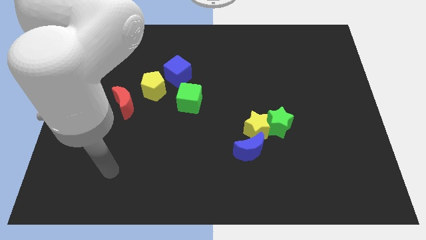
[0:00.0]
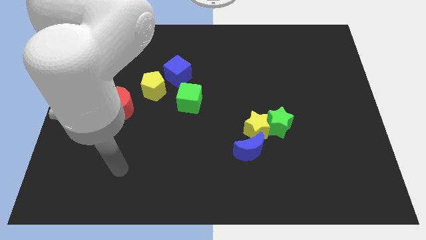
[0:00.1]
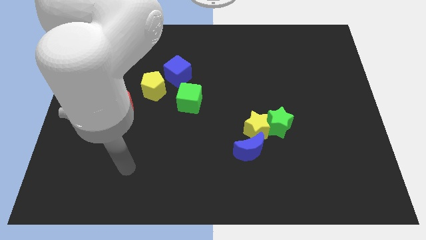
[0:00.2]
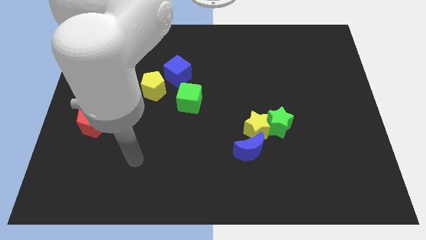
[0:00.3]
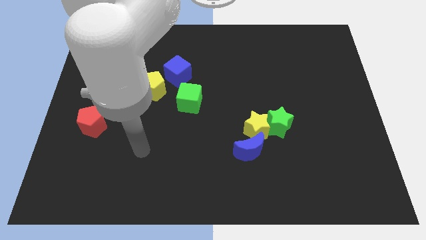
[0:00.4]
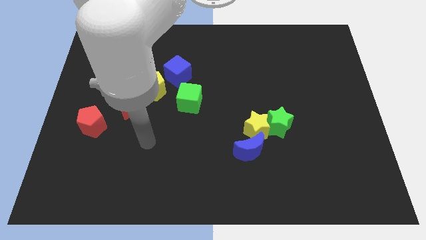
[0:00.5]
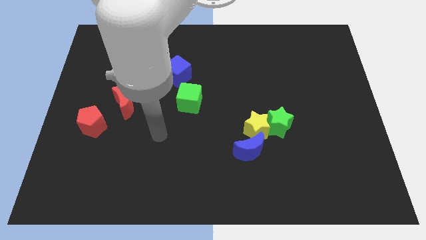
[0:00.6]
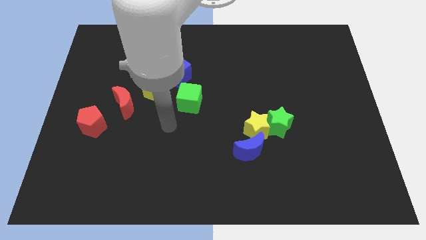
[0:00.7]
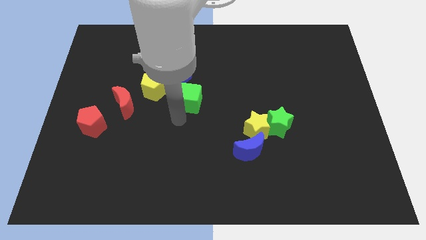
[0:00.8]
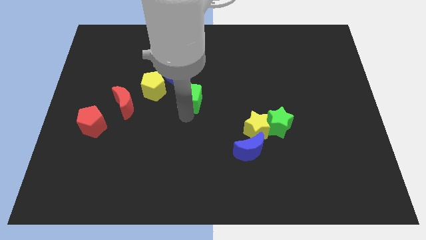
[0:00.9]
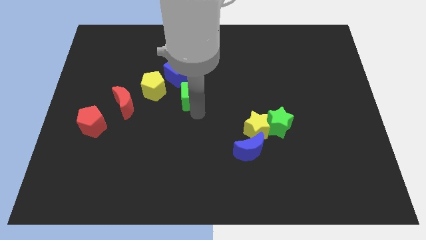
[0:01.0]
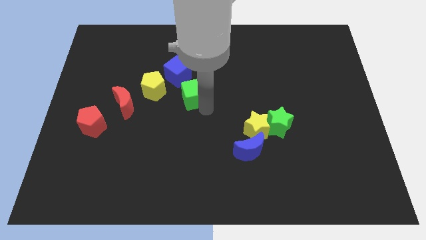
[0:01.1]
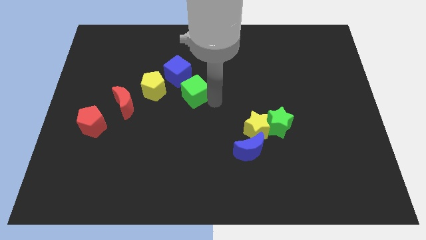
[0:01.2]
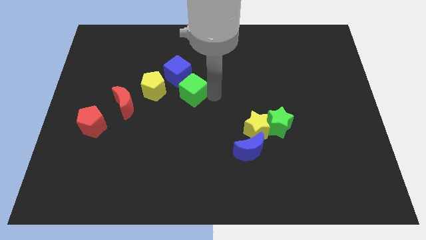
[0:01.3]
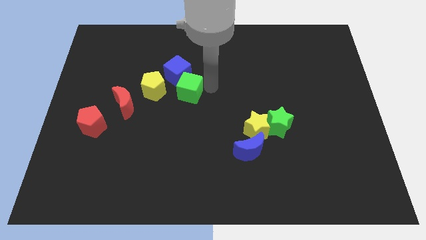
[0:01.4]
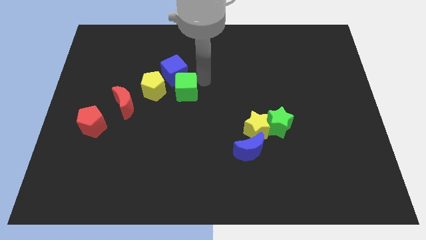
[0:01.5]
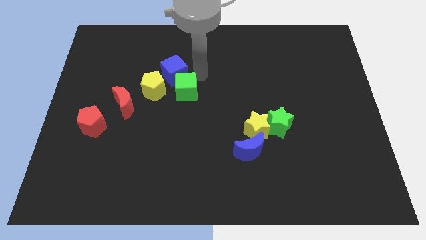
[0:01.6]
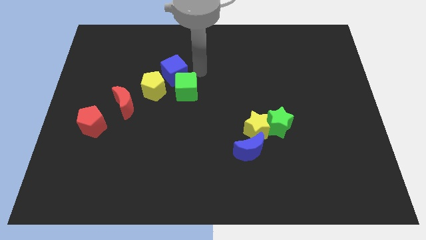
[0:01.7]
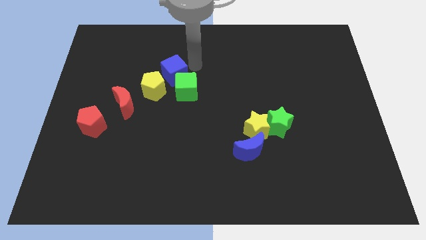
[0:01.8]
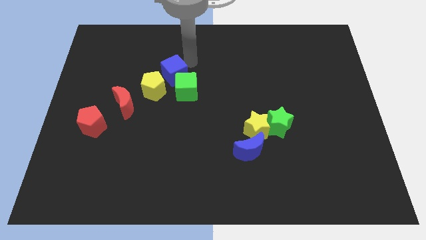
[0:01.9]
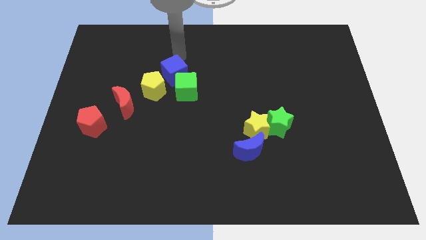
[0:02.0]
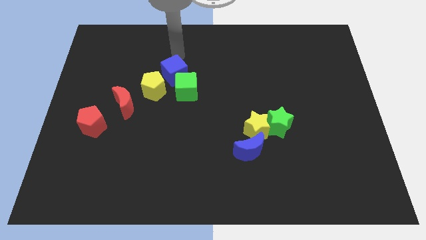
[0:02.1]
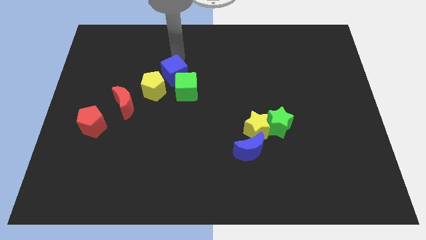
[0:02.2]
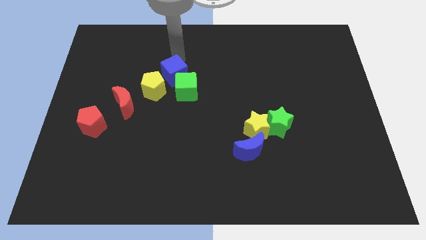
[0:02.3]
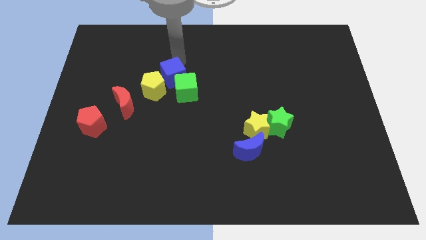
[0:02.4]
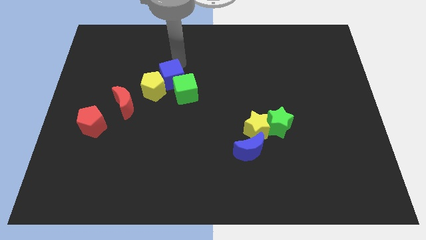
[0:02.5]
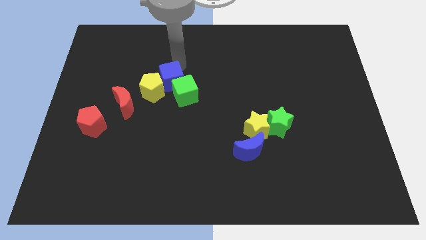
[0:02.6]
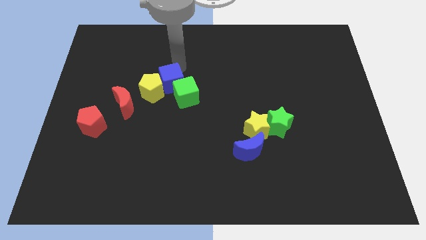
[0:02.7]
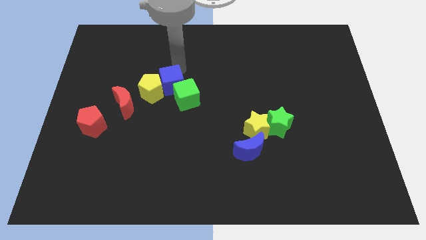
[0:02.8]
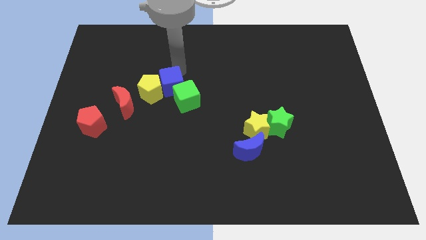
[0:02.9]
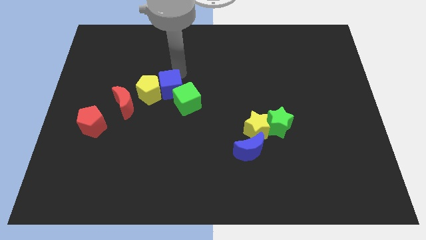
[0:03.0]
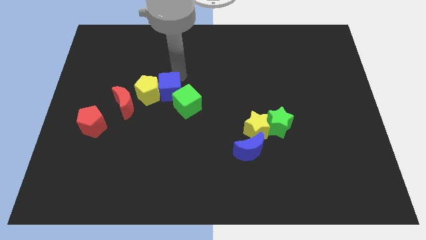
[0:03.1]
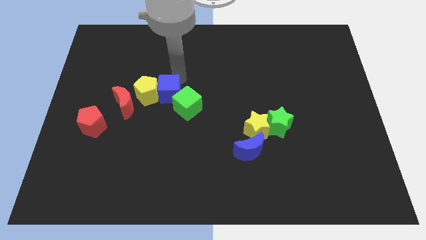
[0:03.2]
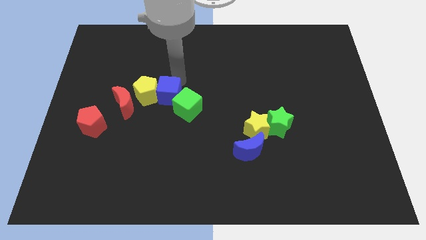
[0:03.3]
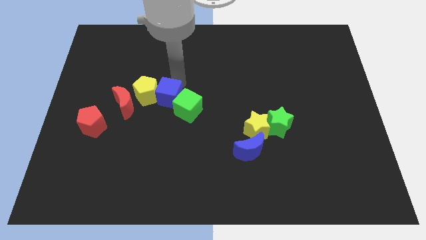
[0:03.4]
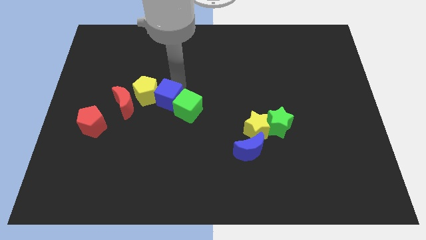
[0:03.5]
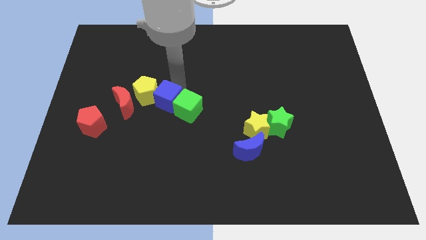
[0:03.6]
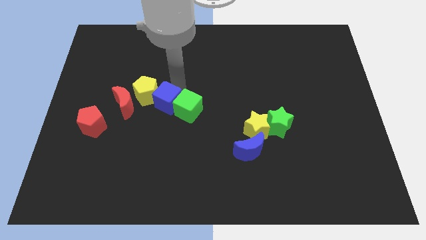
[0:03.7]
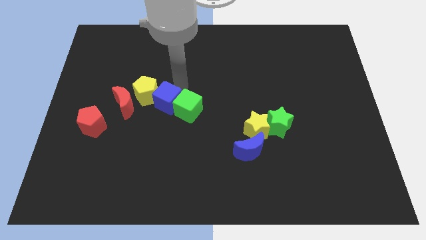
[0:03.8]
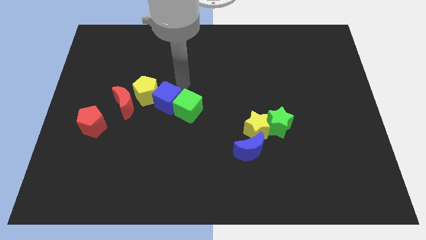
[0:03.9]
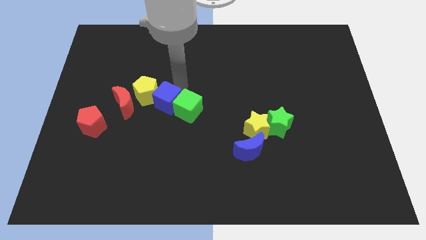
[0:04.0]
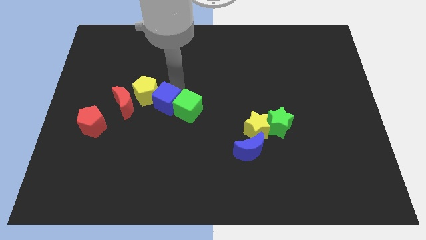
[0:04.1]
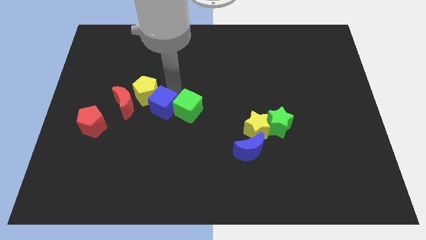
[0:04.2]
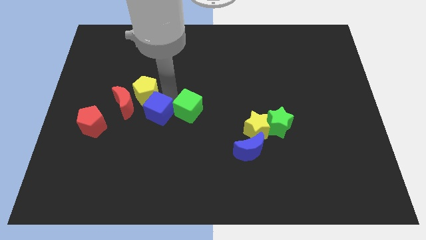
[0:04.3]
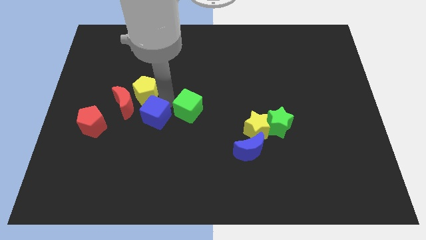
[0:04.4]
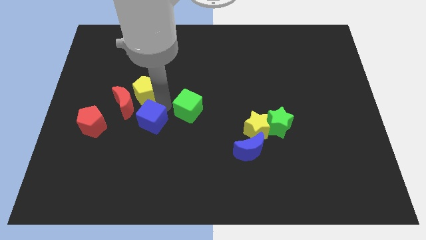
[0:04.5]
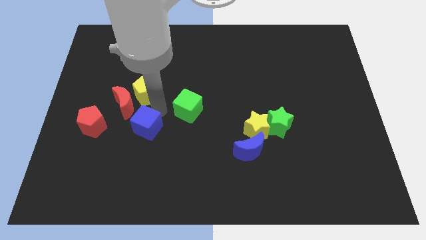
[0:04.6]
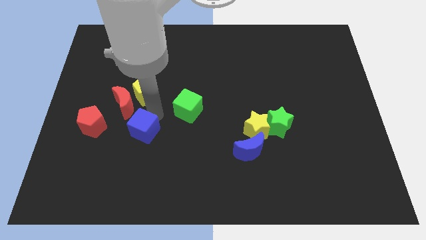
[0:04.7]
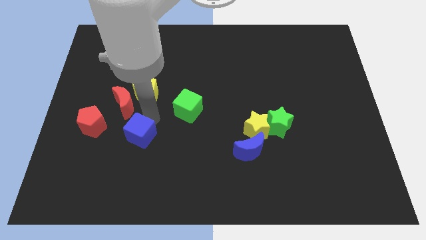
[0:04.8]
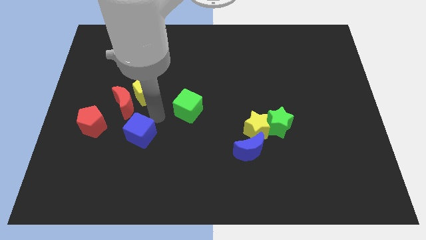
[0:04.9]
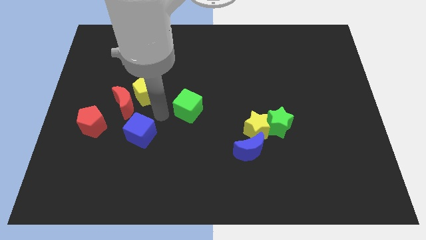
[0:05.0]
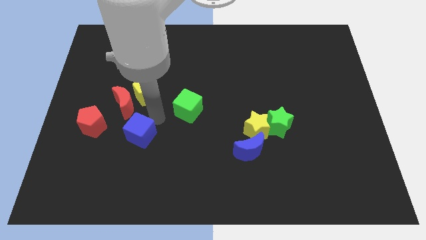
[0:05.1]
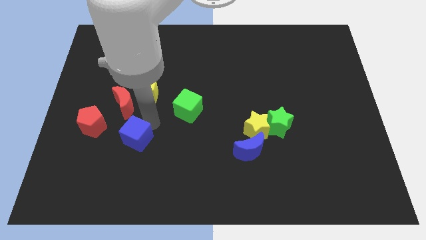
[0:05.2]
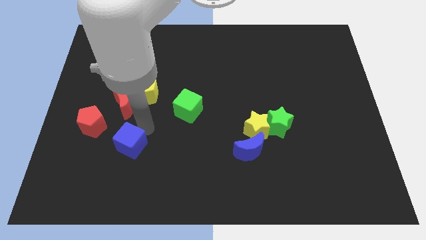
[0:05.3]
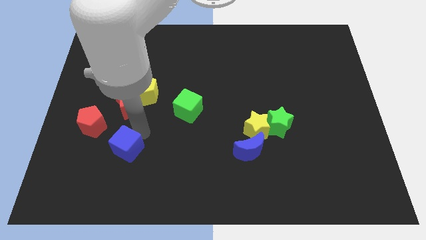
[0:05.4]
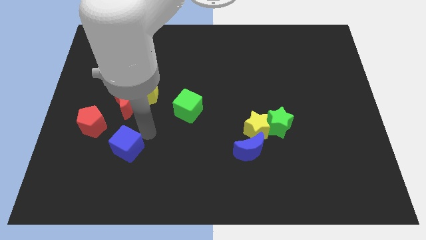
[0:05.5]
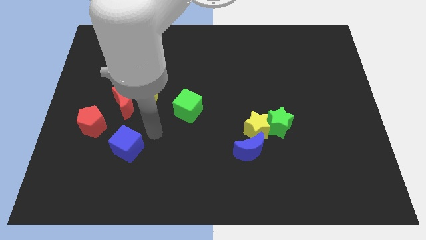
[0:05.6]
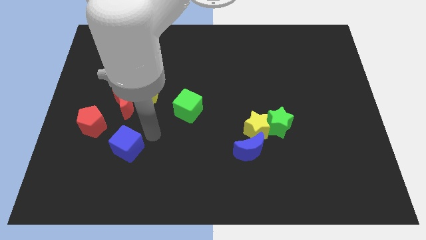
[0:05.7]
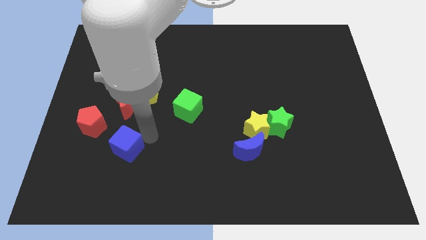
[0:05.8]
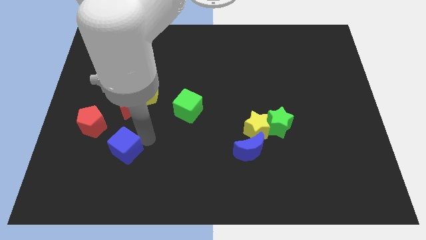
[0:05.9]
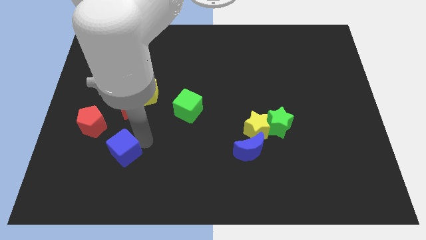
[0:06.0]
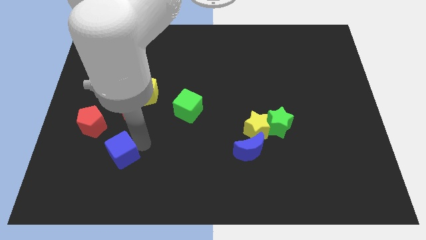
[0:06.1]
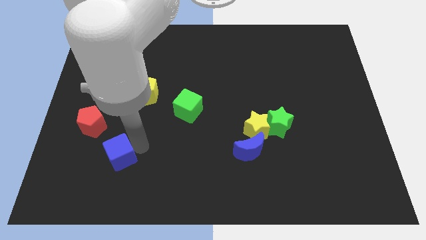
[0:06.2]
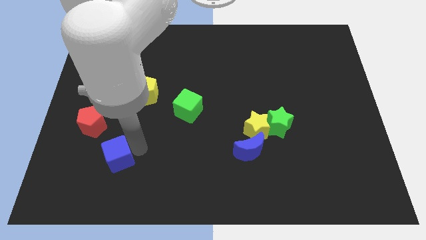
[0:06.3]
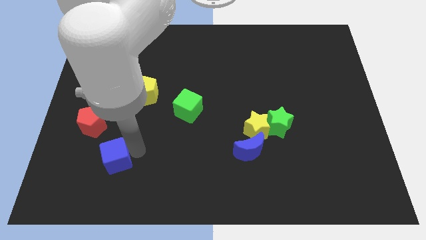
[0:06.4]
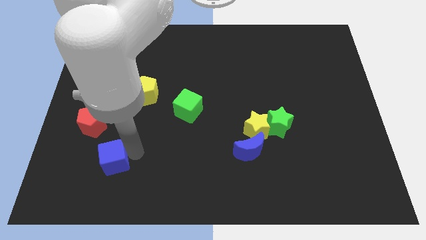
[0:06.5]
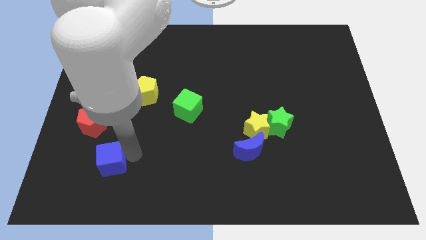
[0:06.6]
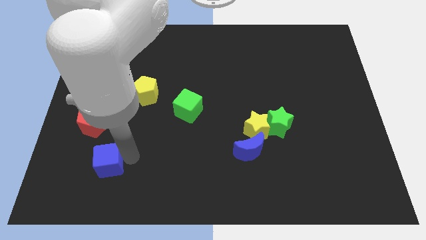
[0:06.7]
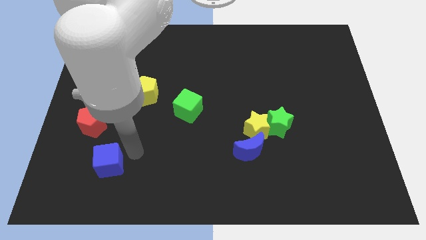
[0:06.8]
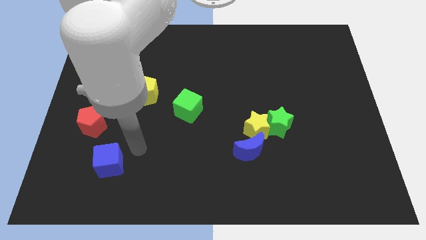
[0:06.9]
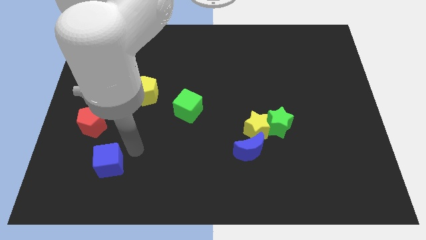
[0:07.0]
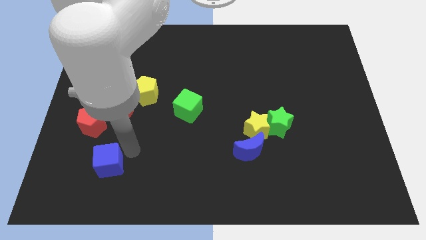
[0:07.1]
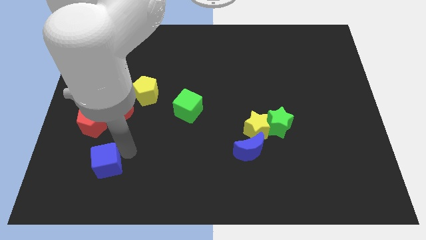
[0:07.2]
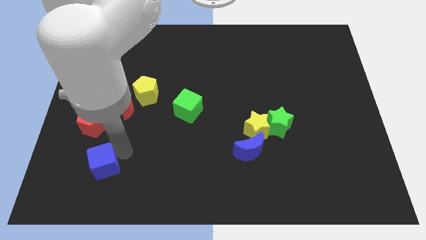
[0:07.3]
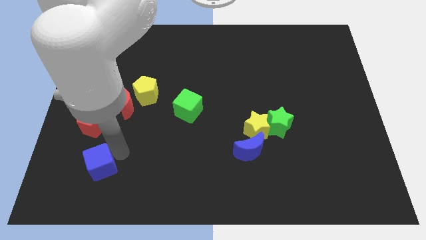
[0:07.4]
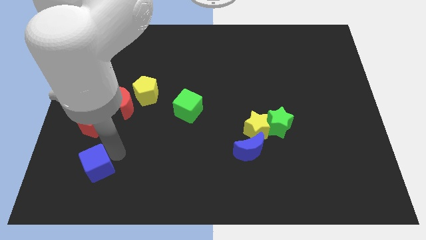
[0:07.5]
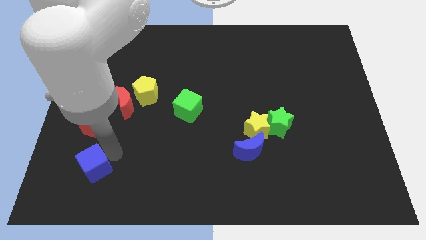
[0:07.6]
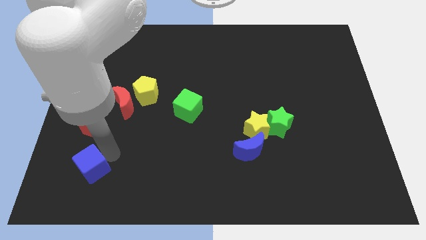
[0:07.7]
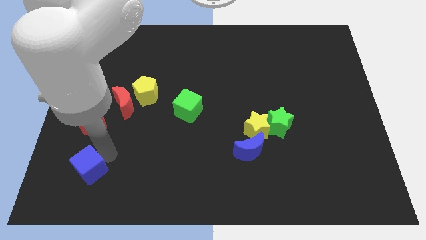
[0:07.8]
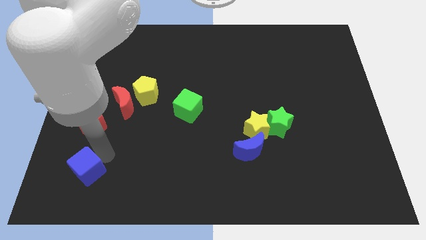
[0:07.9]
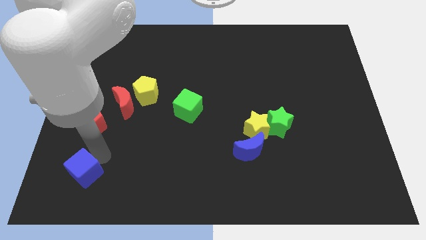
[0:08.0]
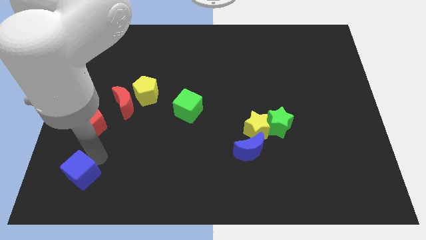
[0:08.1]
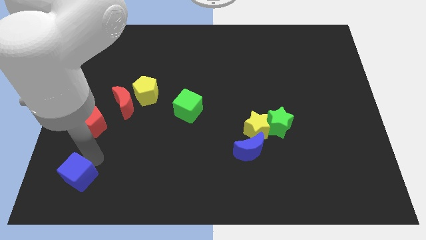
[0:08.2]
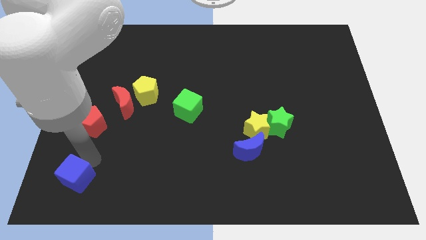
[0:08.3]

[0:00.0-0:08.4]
slide the blue cube to the bottom left
